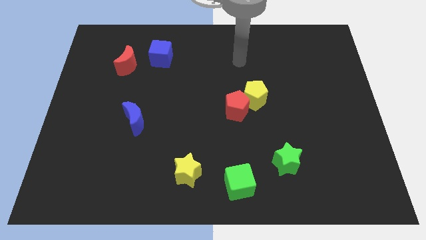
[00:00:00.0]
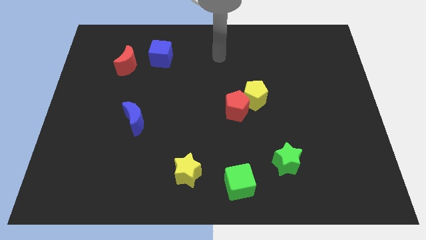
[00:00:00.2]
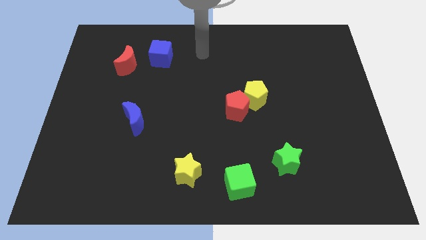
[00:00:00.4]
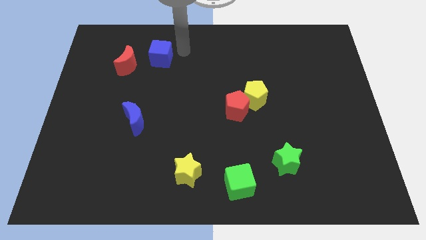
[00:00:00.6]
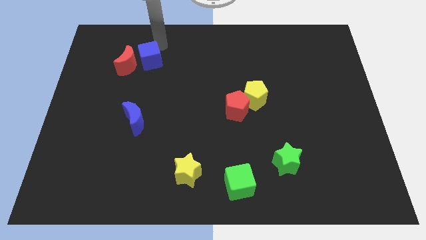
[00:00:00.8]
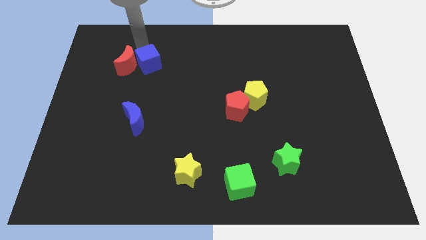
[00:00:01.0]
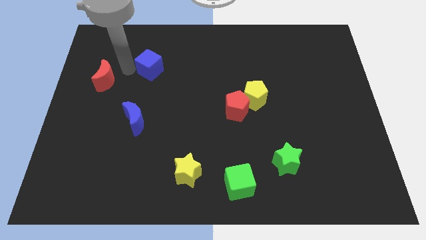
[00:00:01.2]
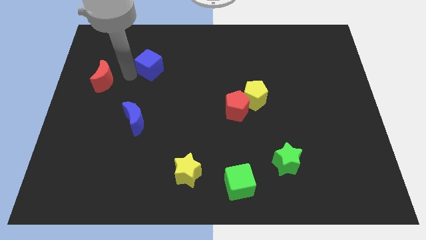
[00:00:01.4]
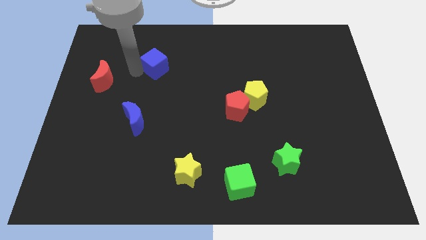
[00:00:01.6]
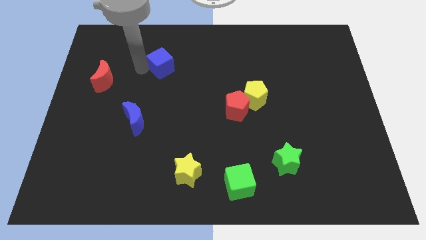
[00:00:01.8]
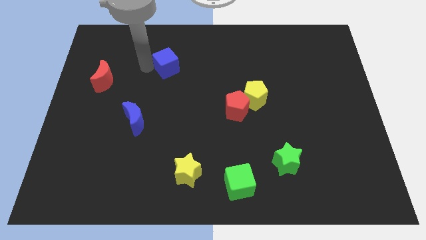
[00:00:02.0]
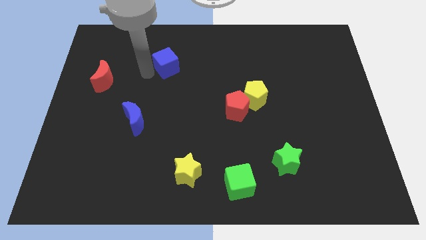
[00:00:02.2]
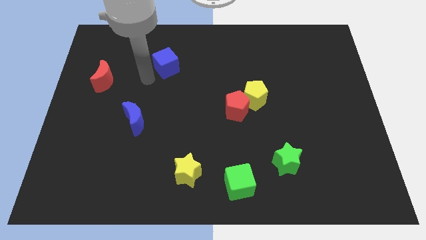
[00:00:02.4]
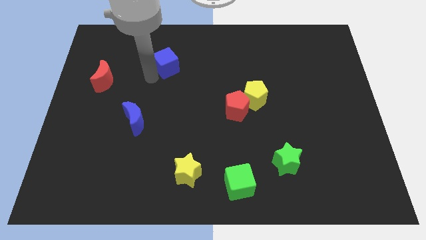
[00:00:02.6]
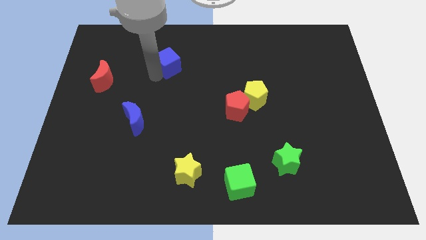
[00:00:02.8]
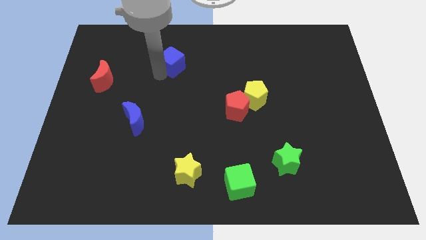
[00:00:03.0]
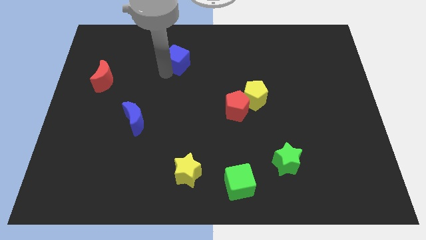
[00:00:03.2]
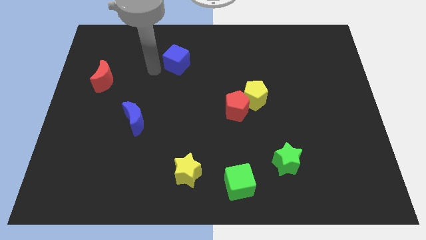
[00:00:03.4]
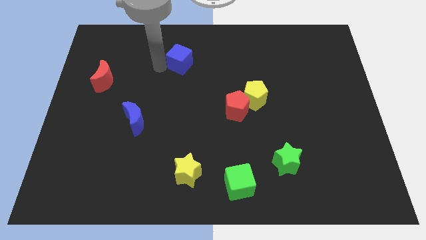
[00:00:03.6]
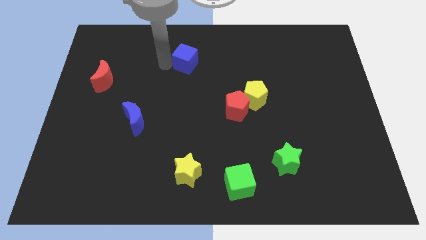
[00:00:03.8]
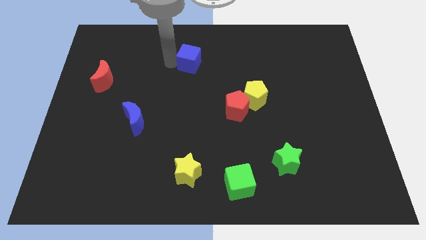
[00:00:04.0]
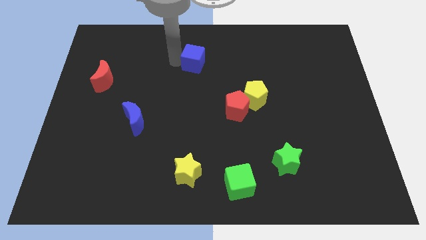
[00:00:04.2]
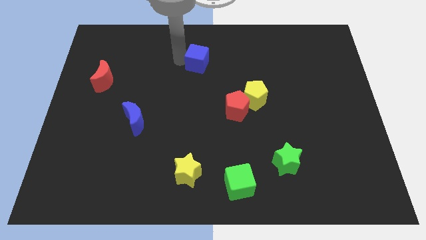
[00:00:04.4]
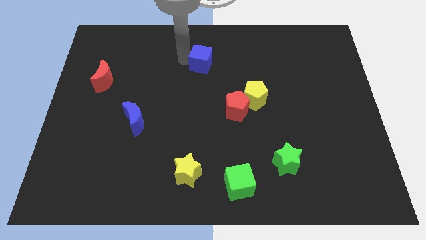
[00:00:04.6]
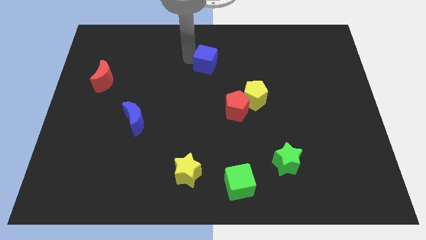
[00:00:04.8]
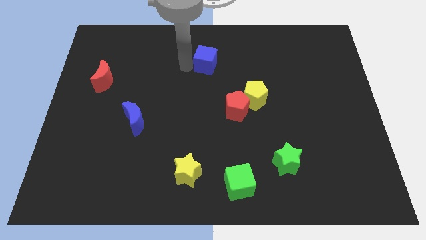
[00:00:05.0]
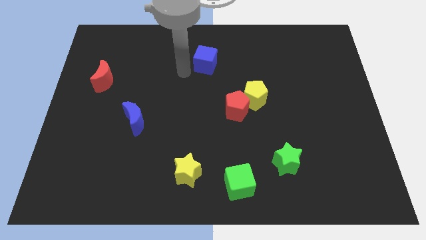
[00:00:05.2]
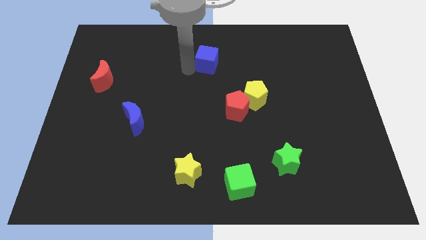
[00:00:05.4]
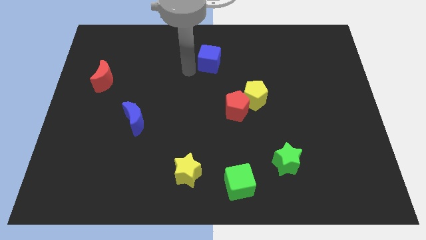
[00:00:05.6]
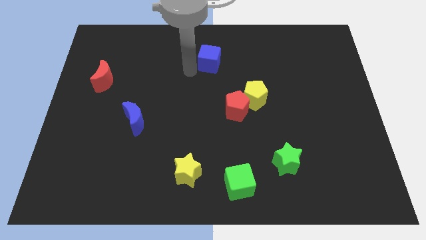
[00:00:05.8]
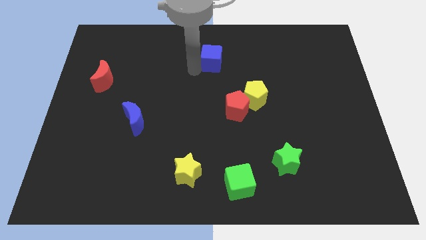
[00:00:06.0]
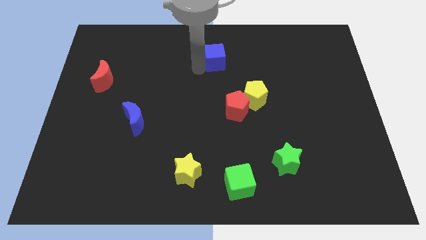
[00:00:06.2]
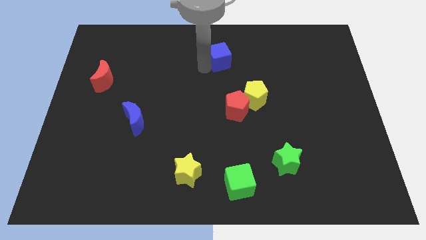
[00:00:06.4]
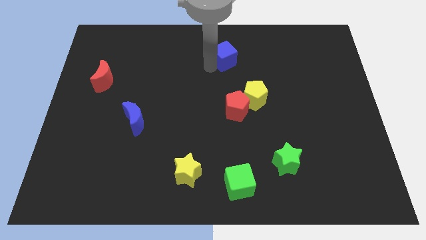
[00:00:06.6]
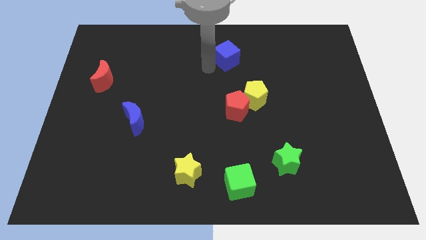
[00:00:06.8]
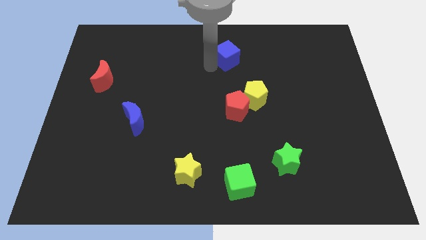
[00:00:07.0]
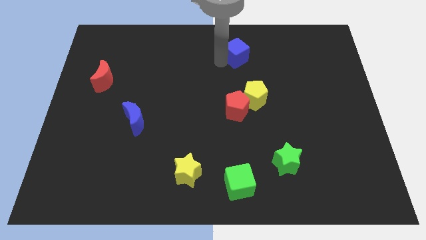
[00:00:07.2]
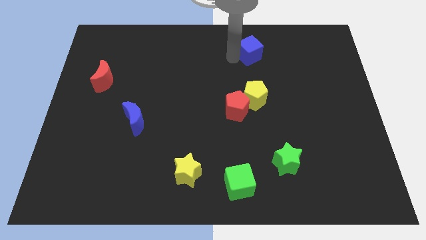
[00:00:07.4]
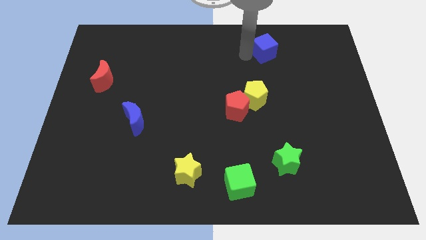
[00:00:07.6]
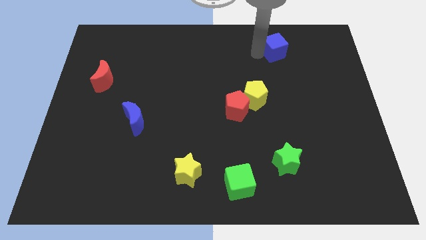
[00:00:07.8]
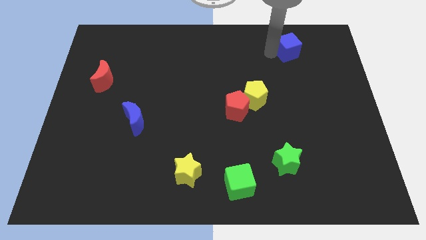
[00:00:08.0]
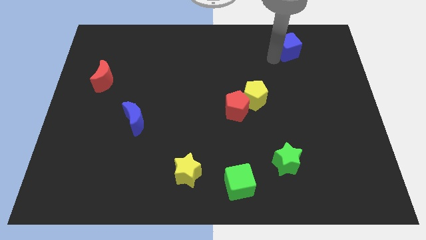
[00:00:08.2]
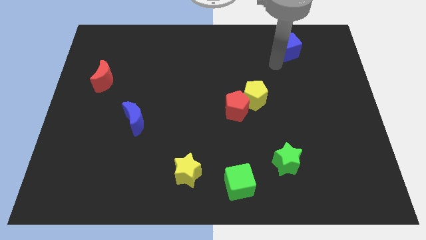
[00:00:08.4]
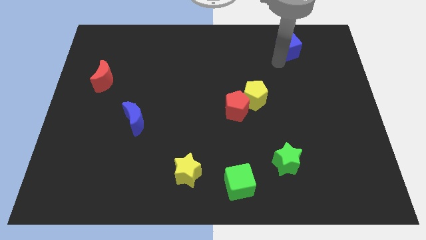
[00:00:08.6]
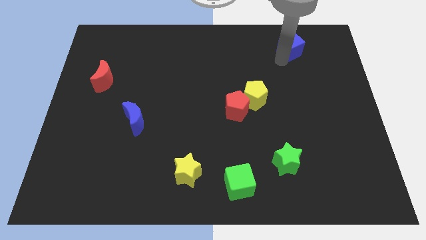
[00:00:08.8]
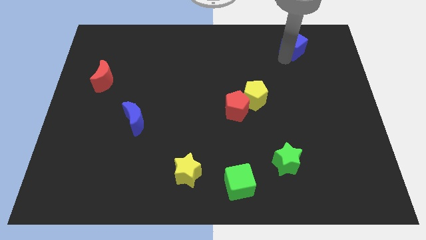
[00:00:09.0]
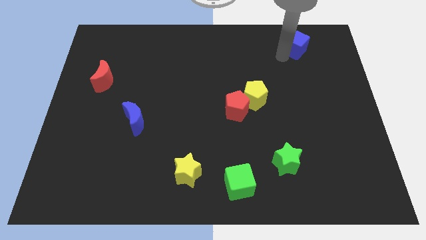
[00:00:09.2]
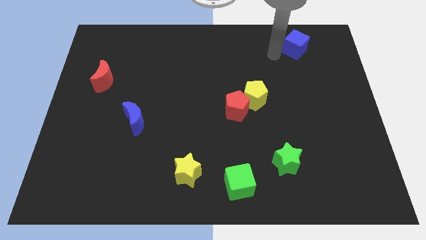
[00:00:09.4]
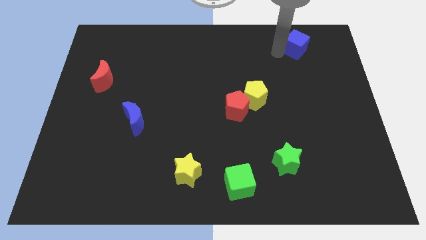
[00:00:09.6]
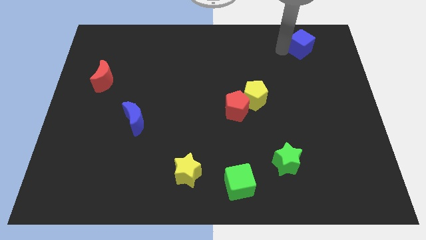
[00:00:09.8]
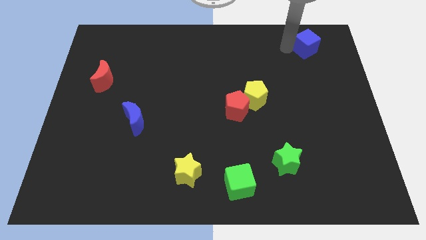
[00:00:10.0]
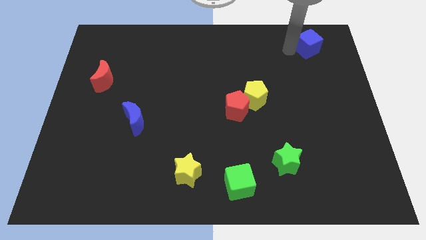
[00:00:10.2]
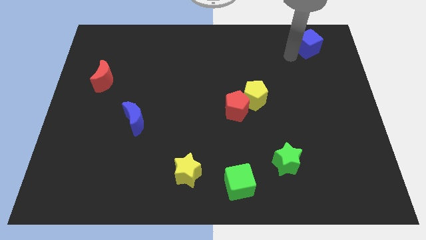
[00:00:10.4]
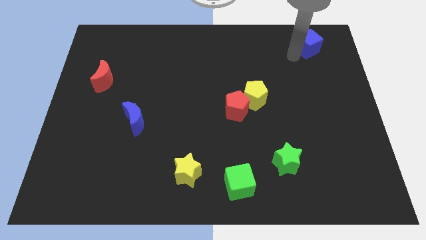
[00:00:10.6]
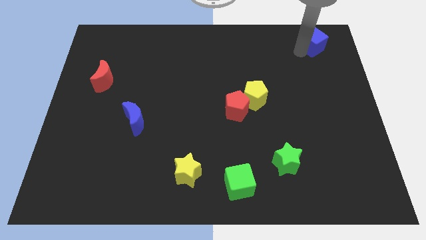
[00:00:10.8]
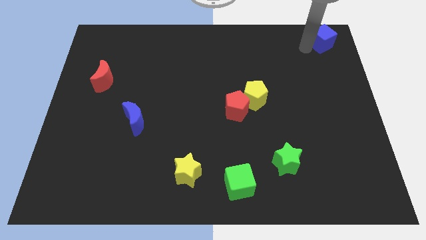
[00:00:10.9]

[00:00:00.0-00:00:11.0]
put the blue cube to the top right of the board

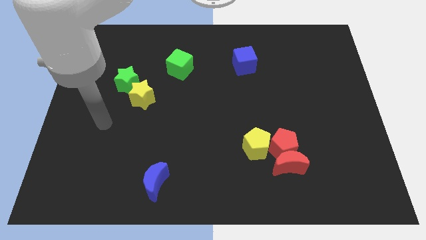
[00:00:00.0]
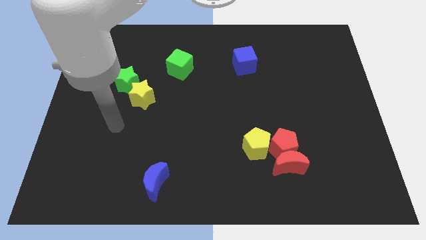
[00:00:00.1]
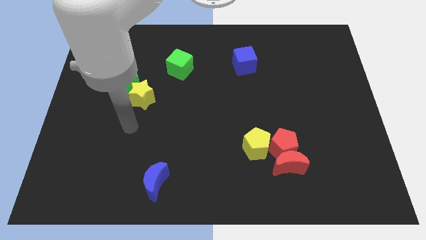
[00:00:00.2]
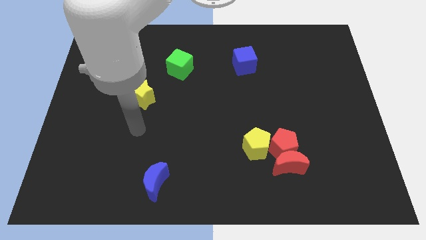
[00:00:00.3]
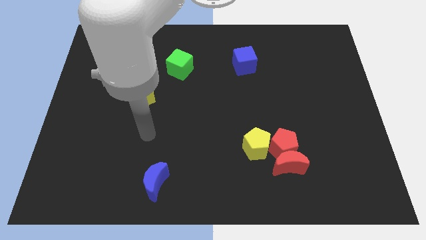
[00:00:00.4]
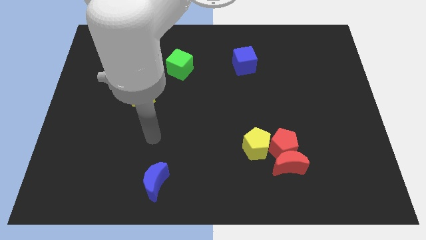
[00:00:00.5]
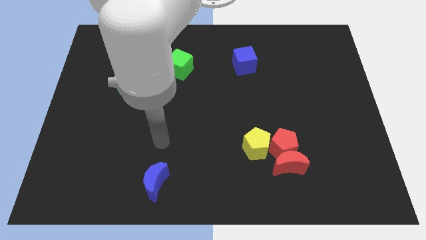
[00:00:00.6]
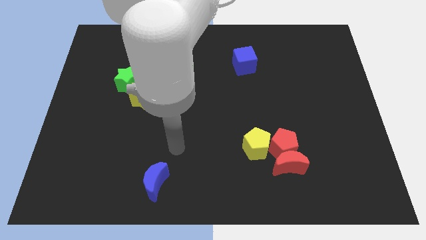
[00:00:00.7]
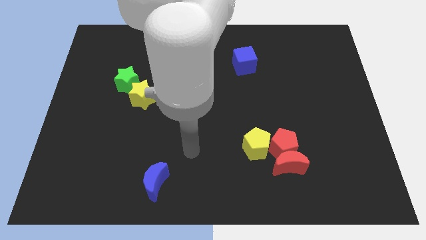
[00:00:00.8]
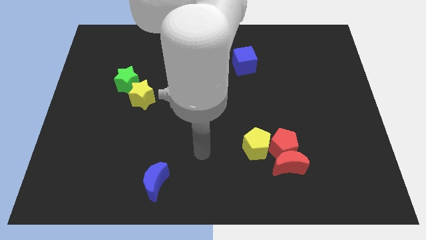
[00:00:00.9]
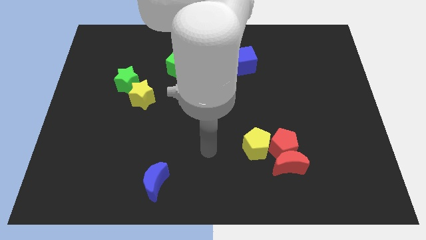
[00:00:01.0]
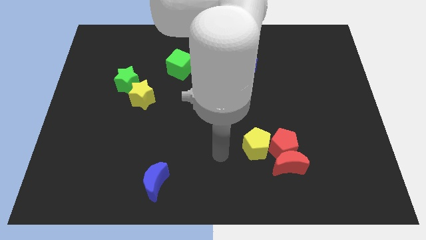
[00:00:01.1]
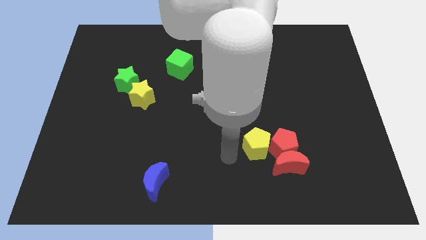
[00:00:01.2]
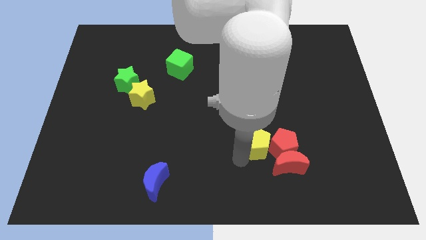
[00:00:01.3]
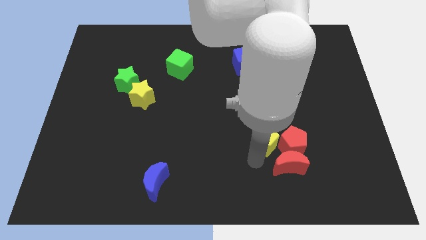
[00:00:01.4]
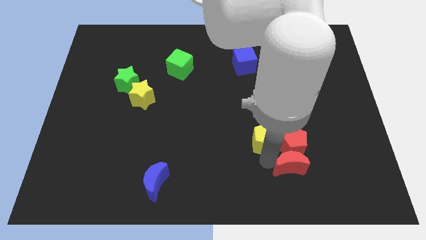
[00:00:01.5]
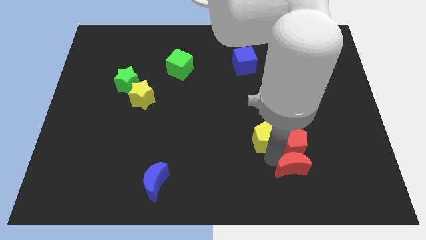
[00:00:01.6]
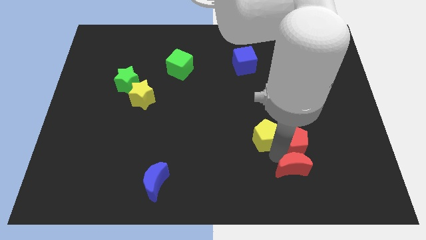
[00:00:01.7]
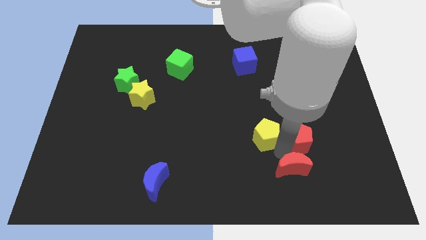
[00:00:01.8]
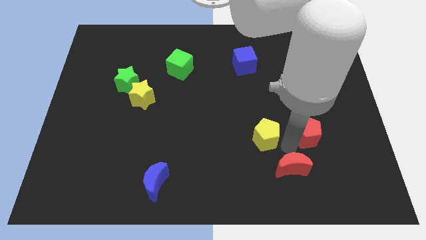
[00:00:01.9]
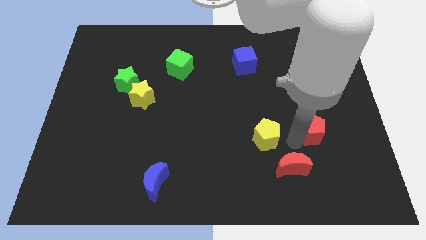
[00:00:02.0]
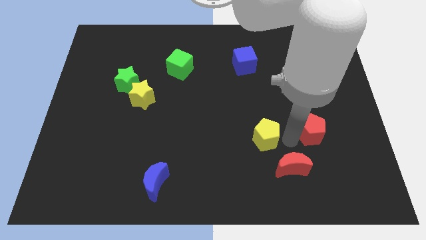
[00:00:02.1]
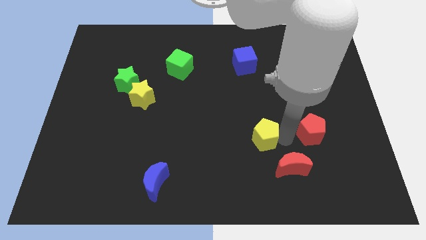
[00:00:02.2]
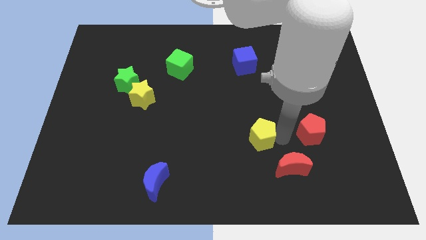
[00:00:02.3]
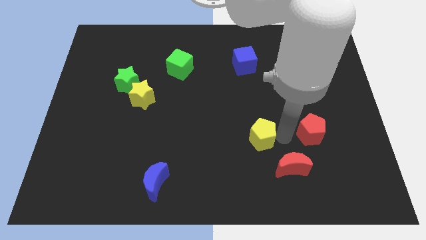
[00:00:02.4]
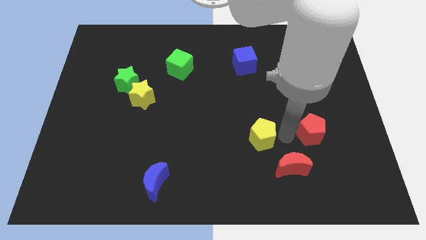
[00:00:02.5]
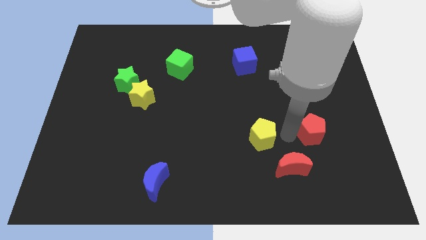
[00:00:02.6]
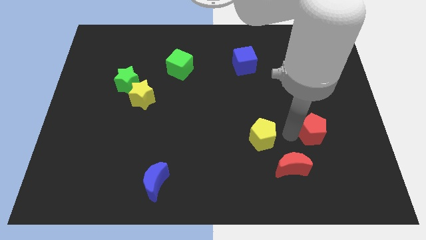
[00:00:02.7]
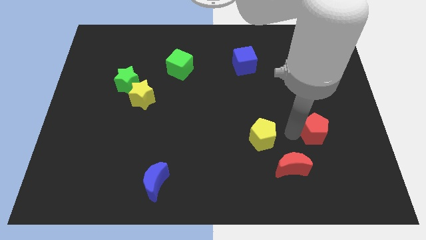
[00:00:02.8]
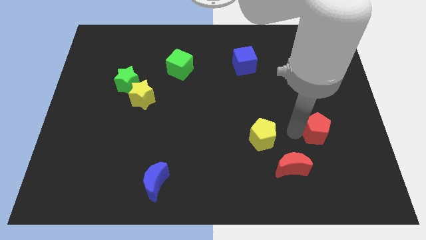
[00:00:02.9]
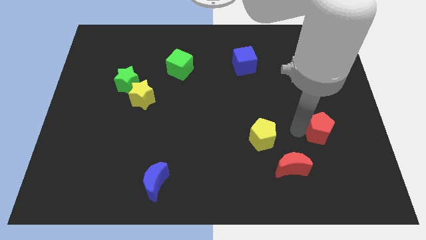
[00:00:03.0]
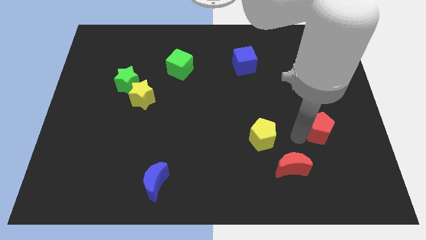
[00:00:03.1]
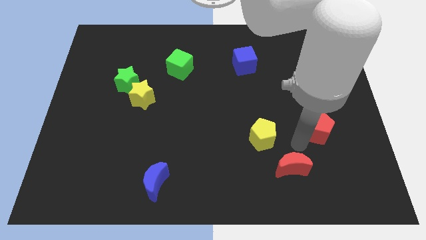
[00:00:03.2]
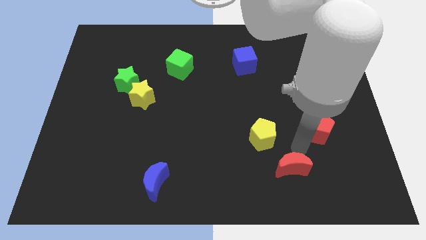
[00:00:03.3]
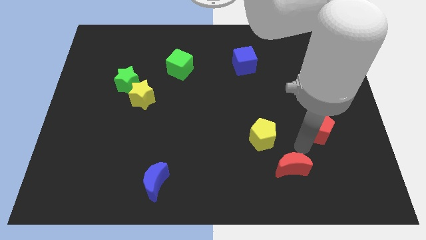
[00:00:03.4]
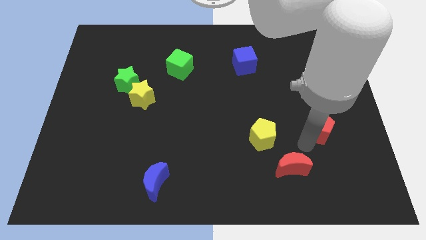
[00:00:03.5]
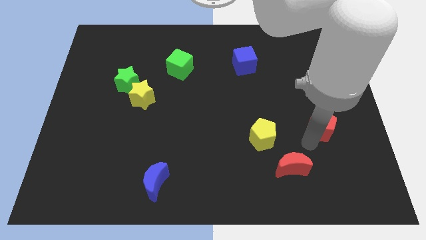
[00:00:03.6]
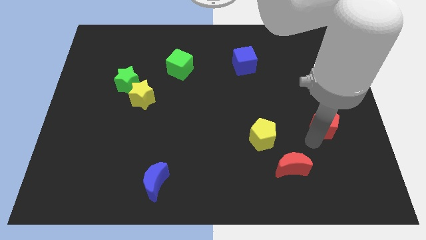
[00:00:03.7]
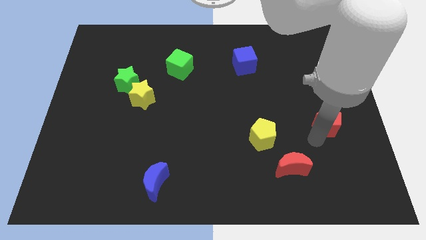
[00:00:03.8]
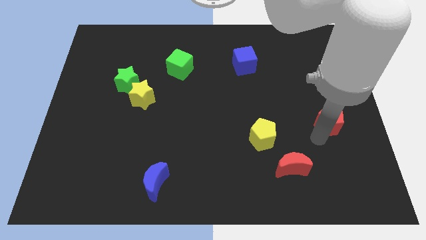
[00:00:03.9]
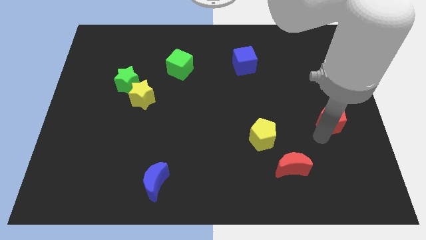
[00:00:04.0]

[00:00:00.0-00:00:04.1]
slide the red pentagon to the right side
